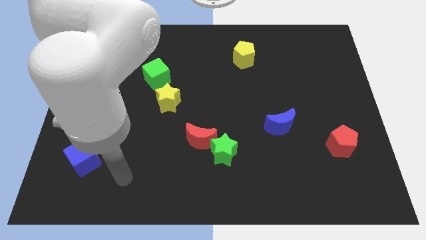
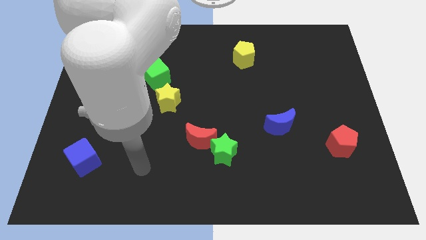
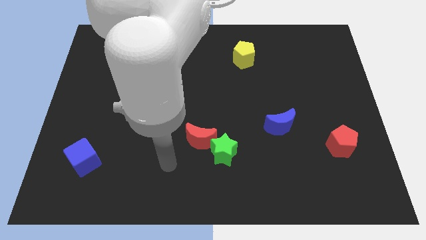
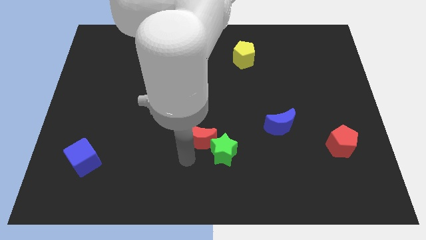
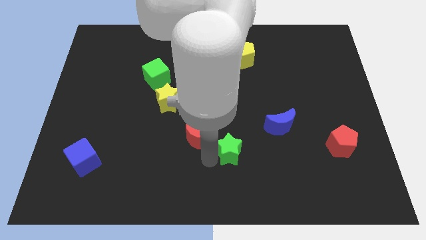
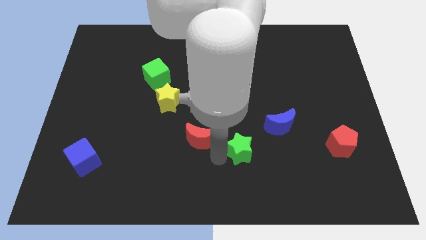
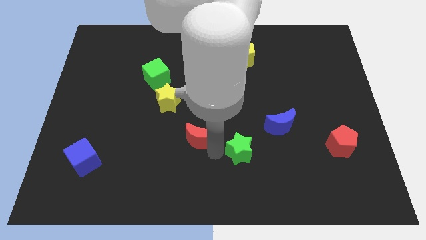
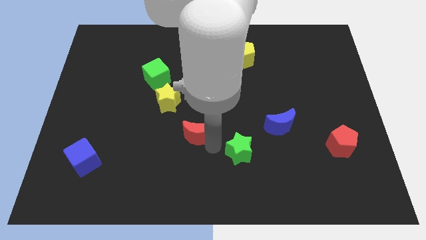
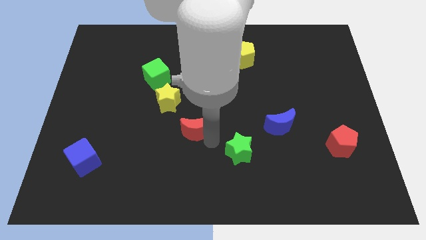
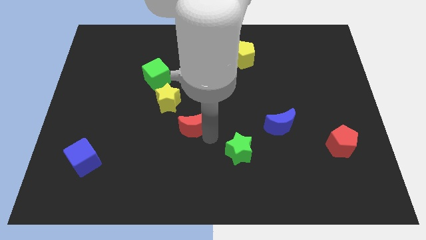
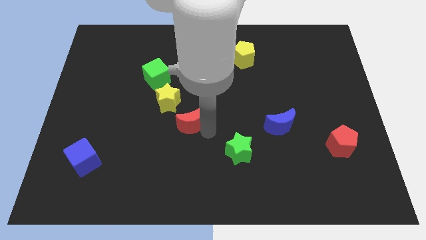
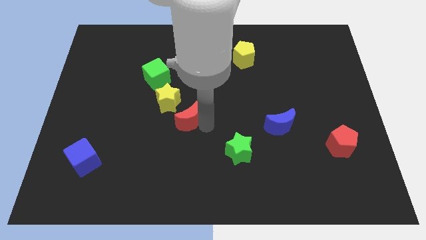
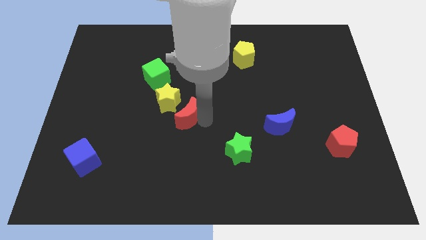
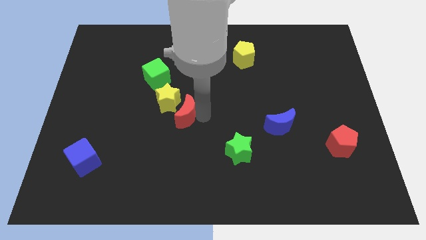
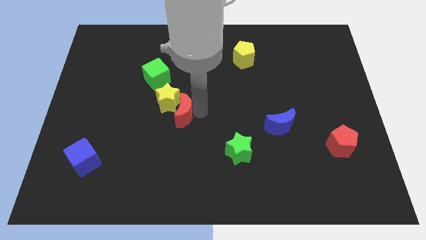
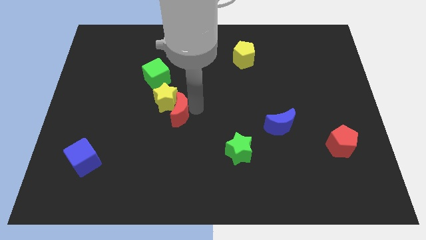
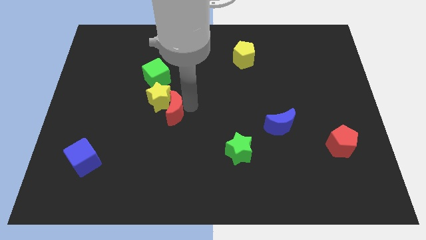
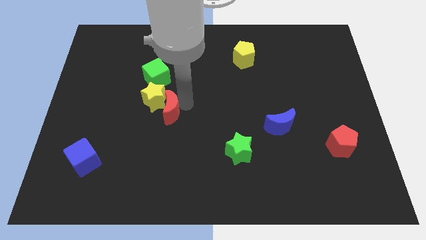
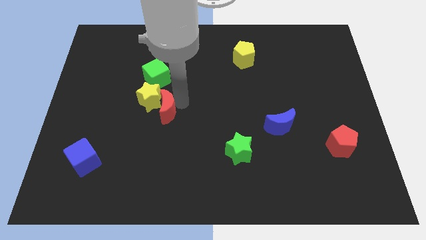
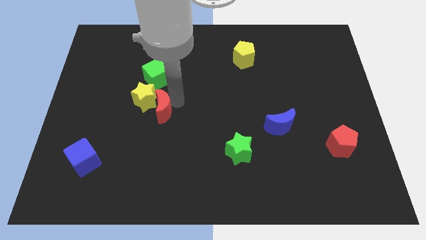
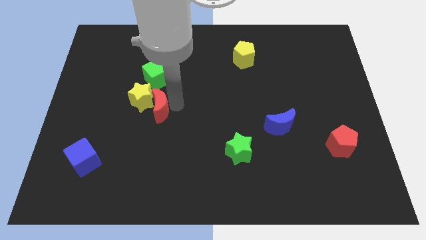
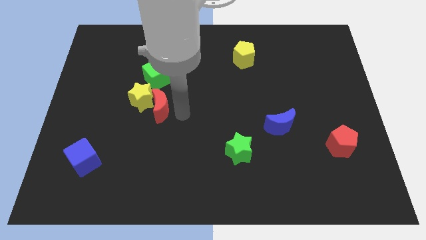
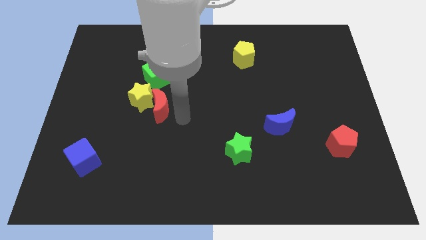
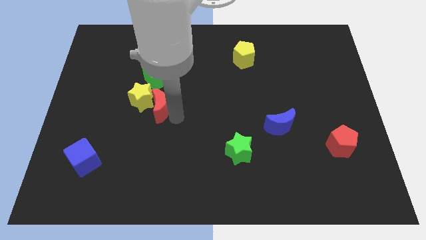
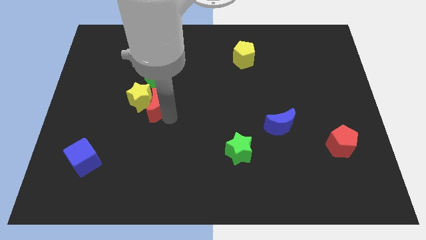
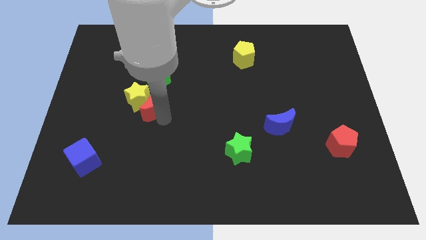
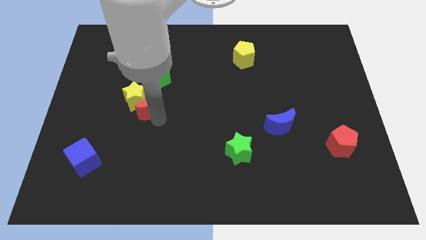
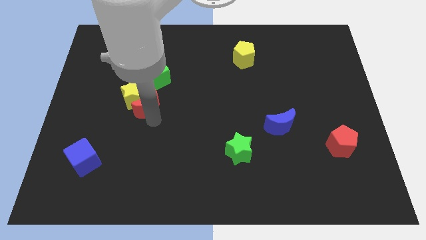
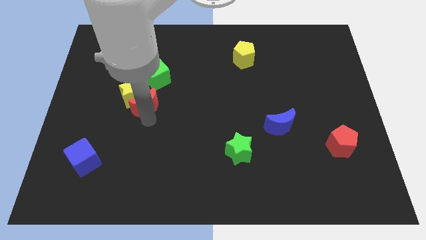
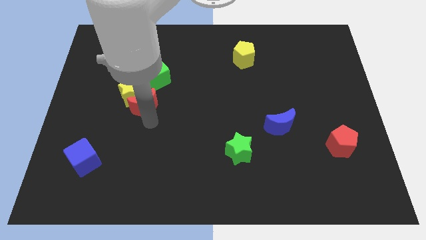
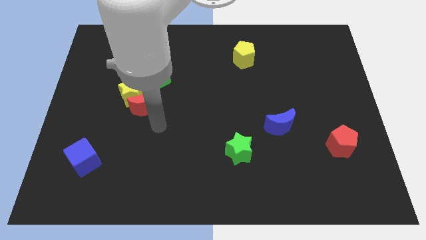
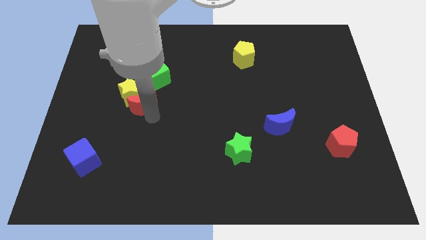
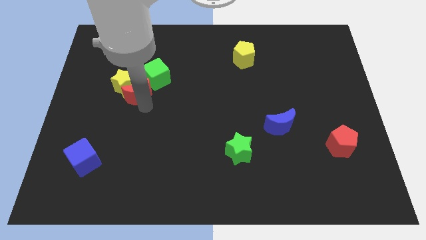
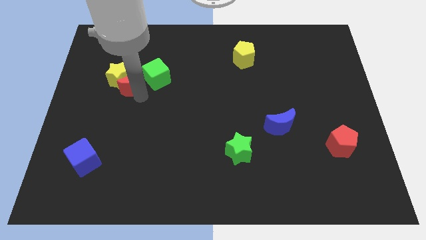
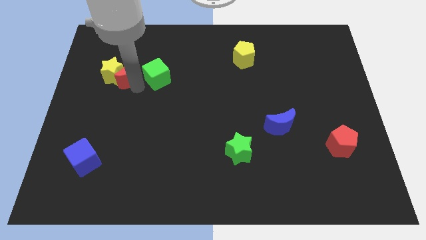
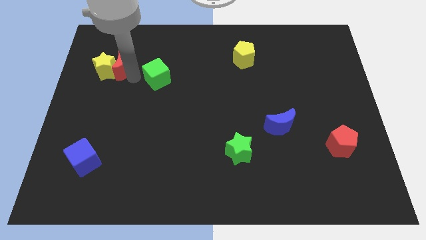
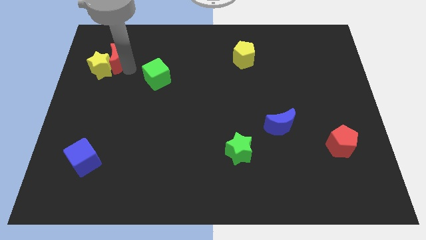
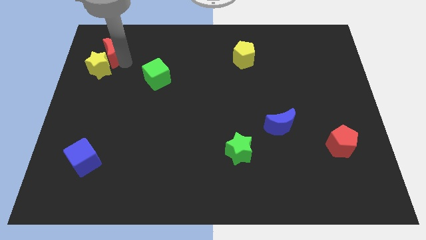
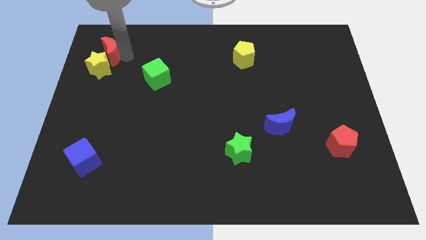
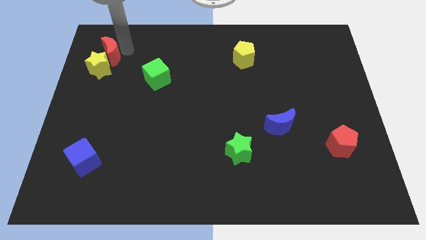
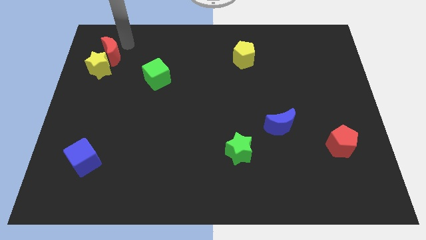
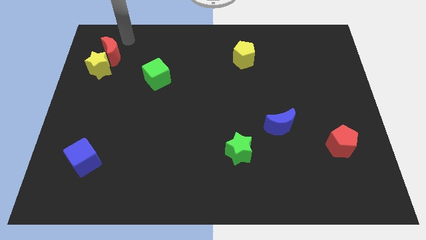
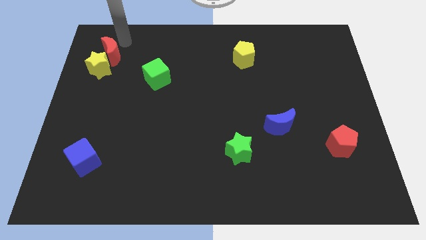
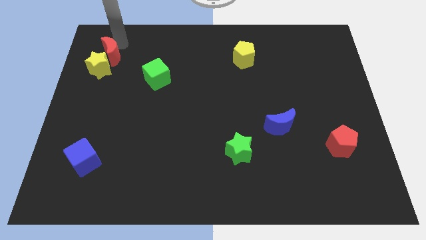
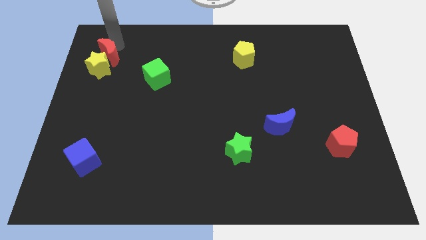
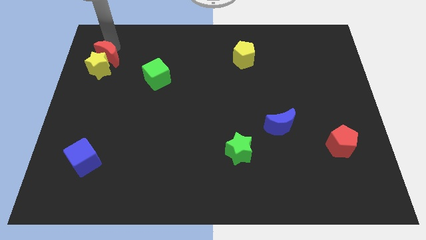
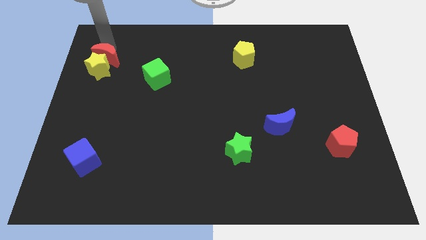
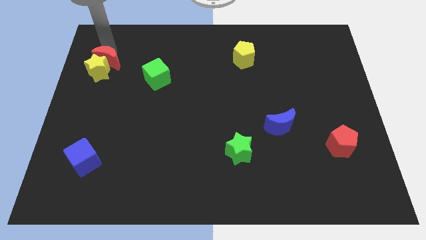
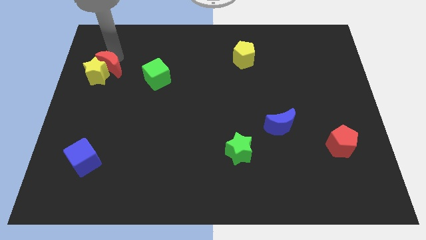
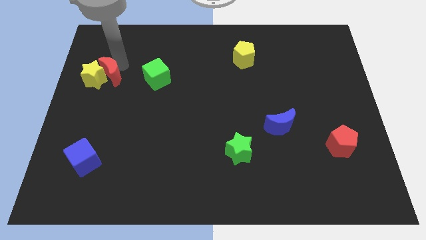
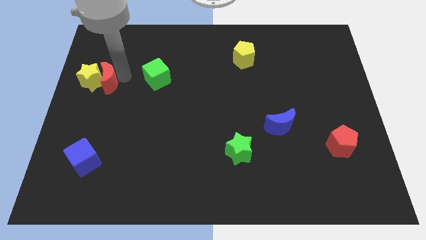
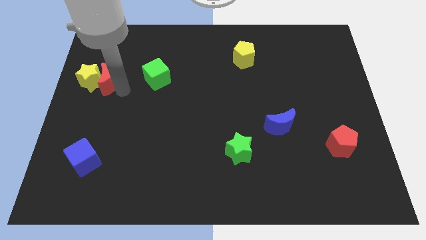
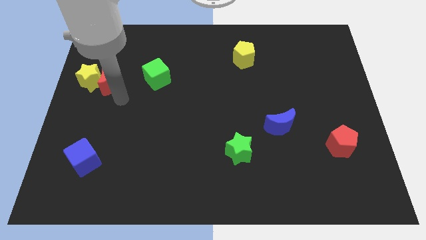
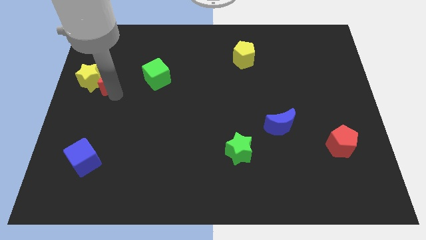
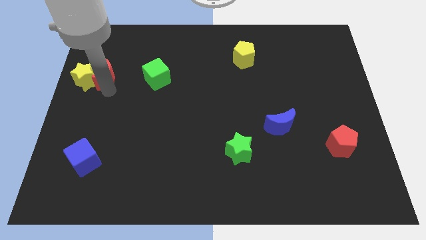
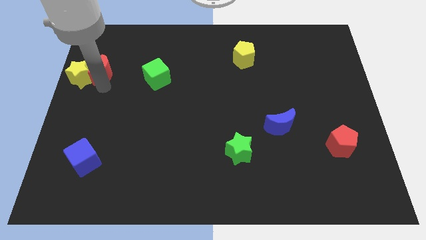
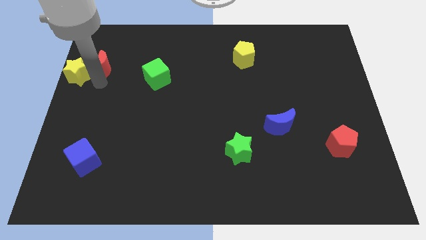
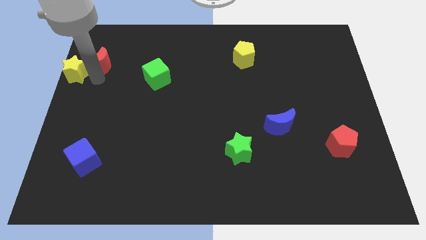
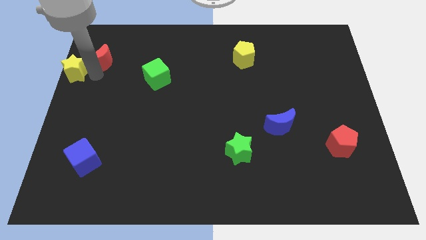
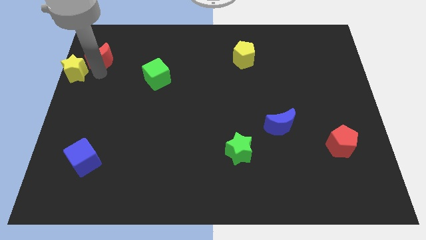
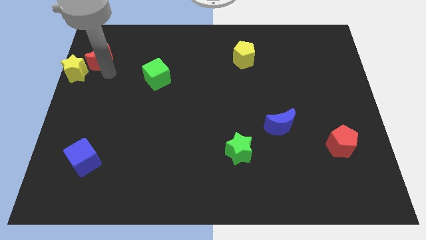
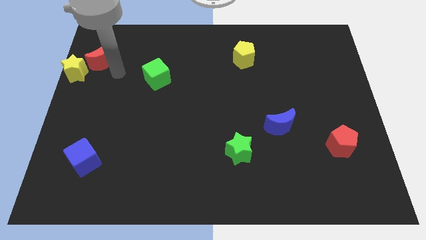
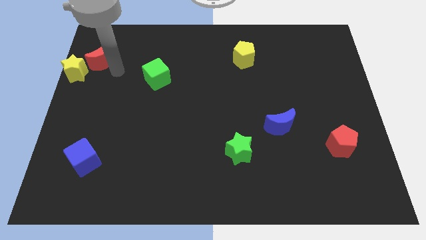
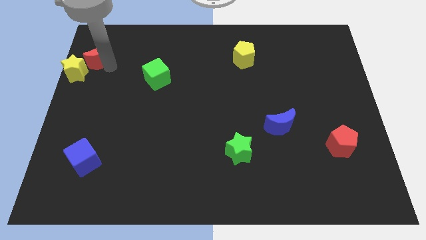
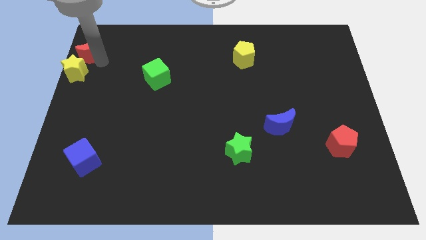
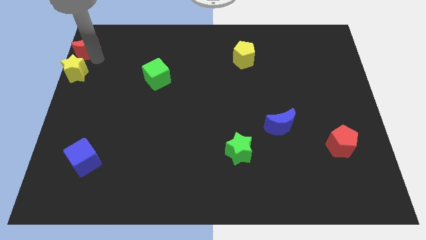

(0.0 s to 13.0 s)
push the red moon to the top left of the board
